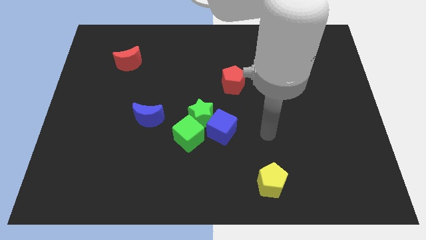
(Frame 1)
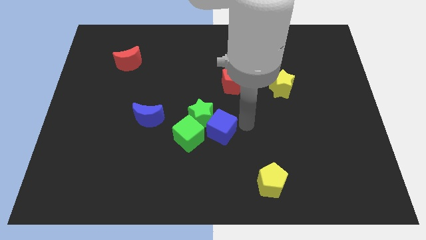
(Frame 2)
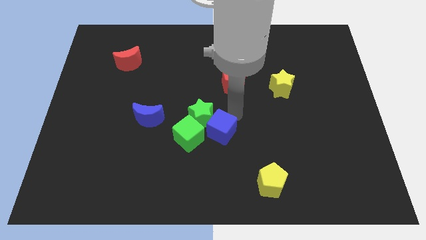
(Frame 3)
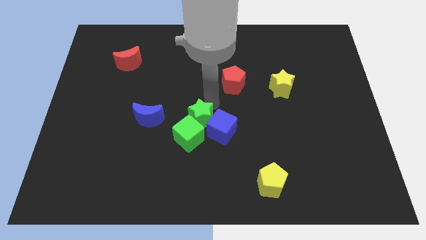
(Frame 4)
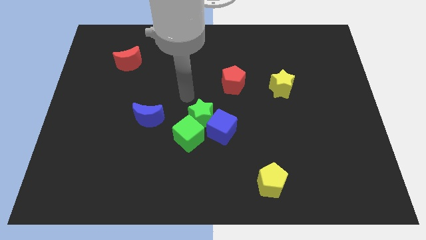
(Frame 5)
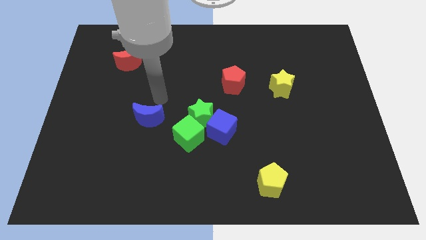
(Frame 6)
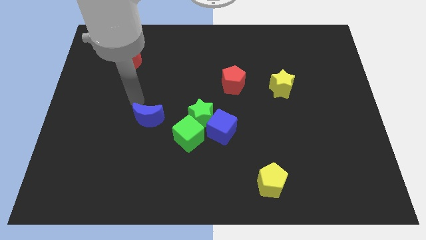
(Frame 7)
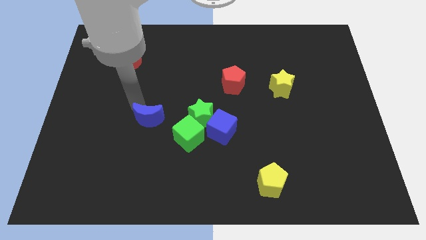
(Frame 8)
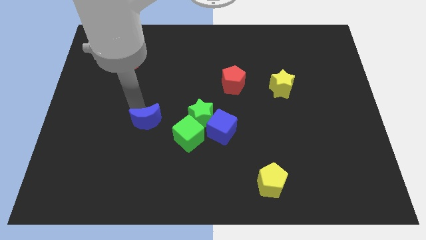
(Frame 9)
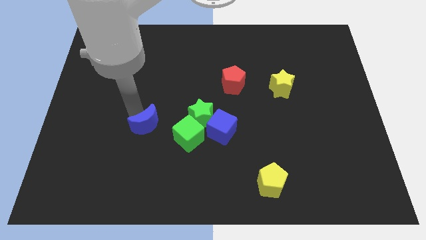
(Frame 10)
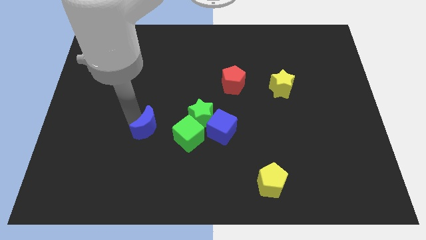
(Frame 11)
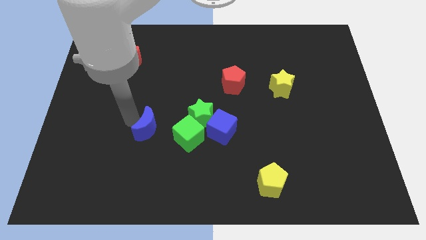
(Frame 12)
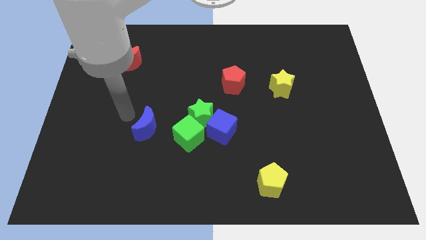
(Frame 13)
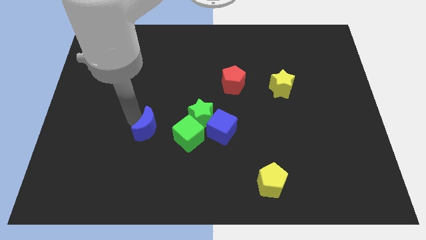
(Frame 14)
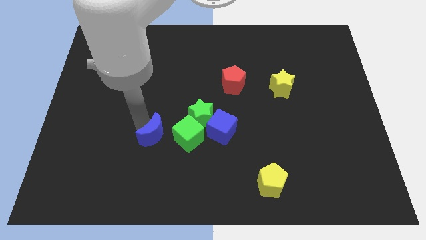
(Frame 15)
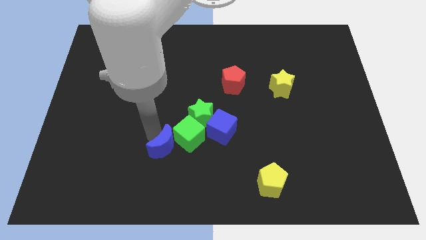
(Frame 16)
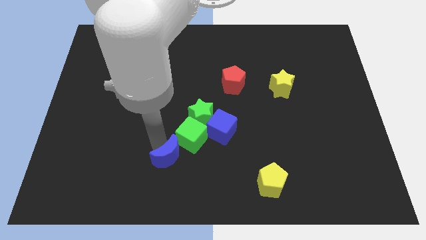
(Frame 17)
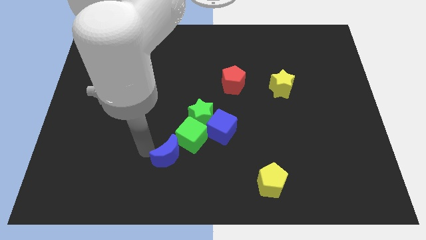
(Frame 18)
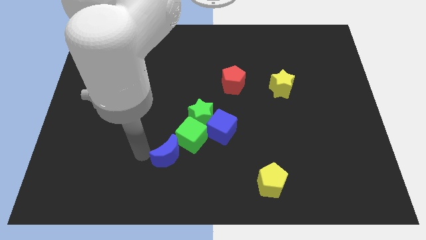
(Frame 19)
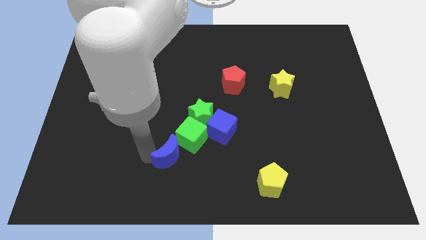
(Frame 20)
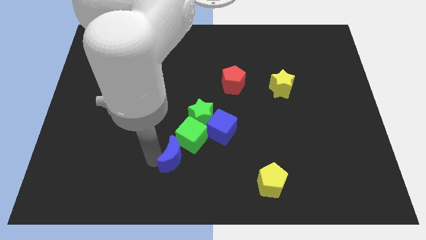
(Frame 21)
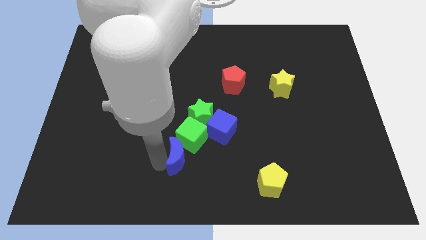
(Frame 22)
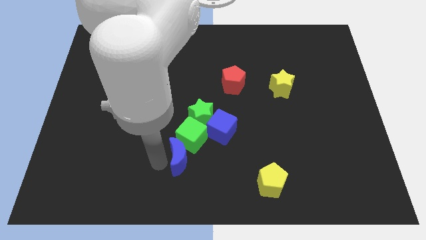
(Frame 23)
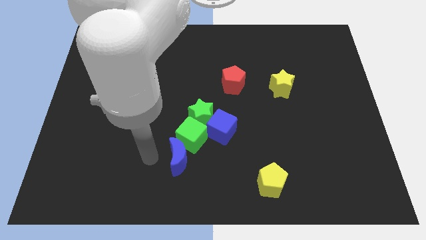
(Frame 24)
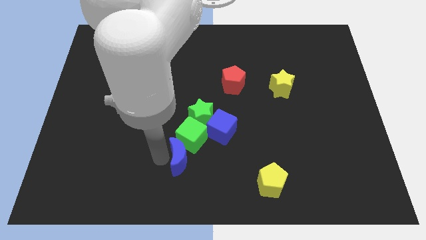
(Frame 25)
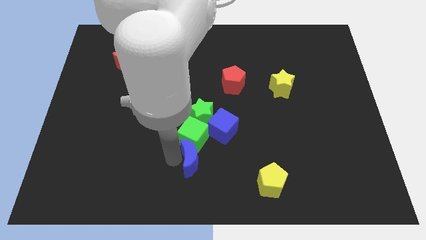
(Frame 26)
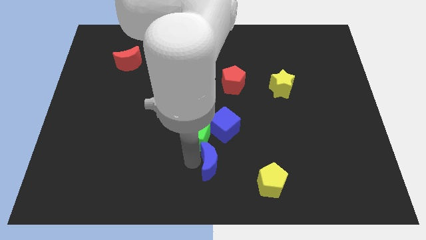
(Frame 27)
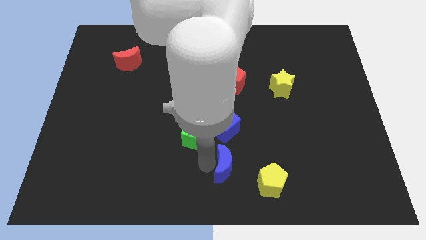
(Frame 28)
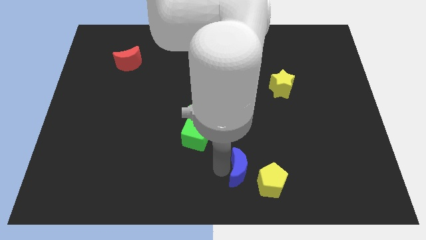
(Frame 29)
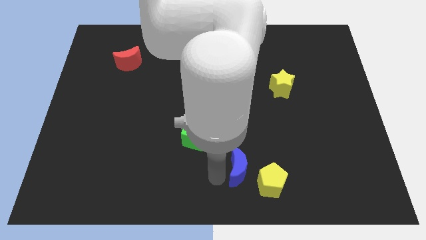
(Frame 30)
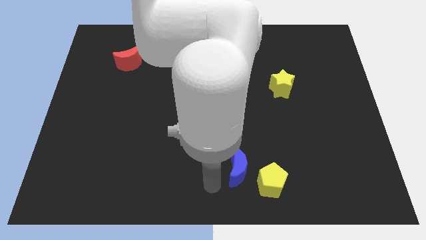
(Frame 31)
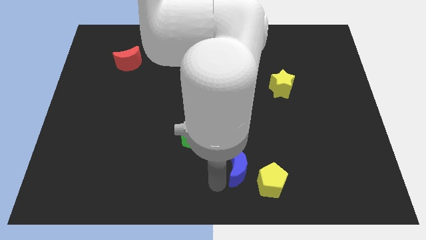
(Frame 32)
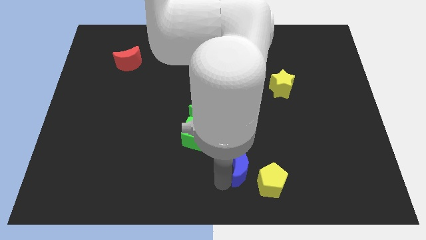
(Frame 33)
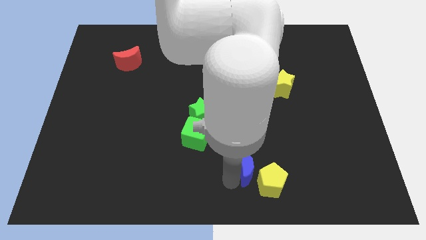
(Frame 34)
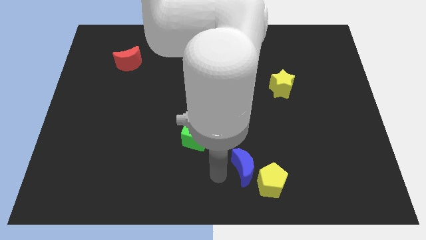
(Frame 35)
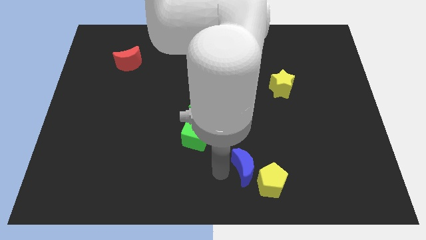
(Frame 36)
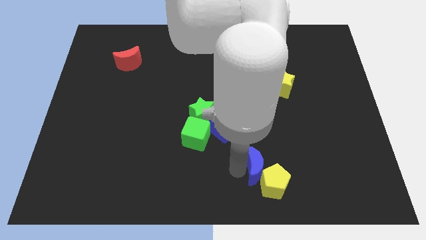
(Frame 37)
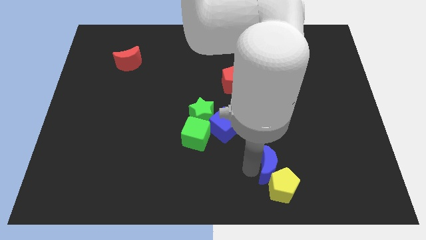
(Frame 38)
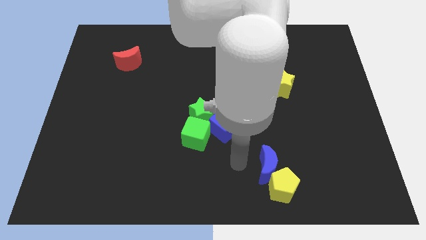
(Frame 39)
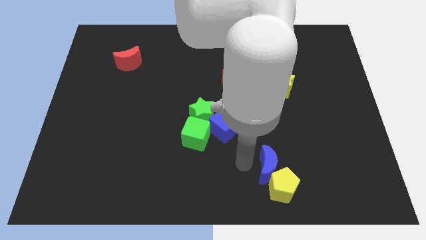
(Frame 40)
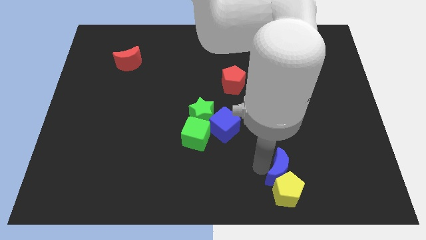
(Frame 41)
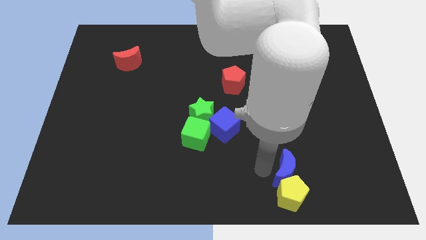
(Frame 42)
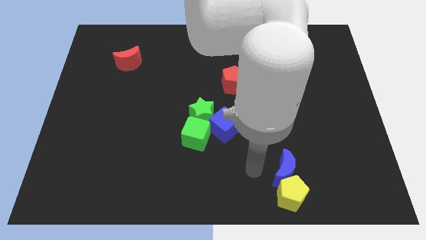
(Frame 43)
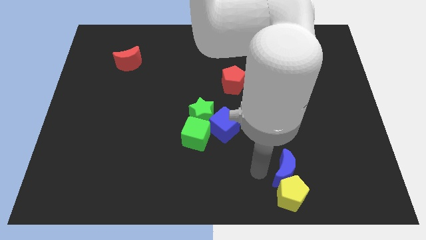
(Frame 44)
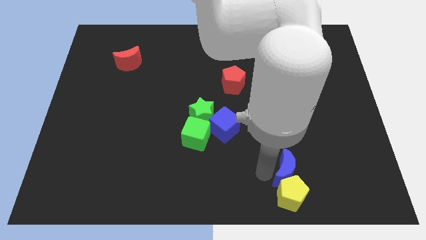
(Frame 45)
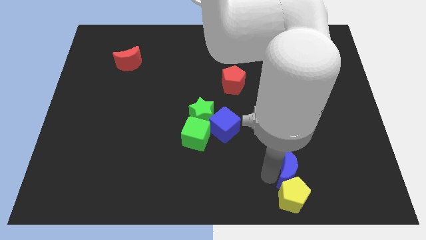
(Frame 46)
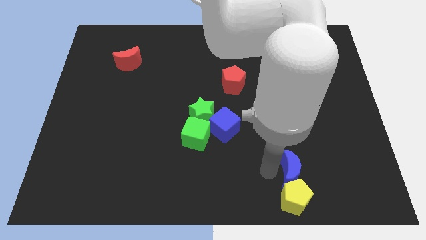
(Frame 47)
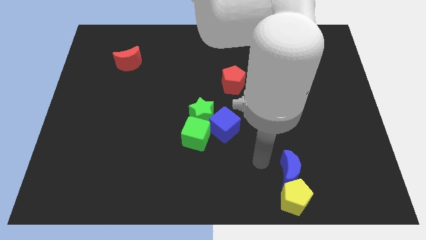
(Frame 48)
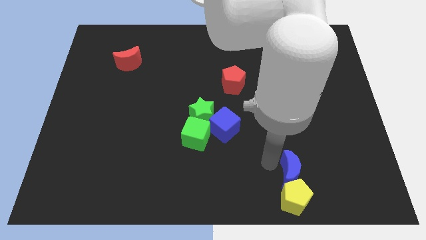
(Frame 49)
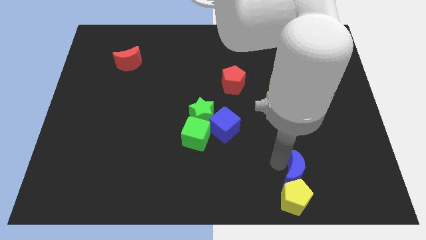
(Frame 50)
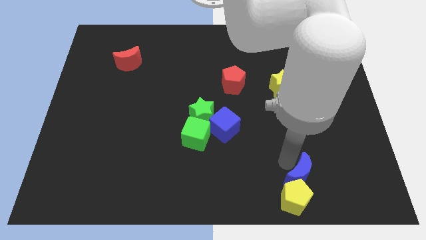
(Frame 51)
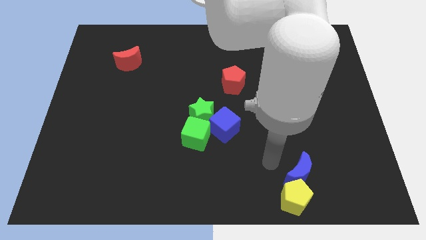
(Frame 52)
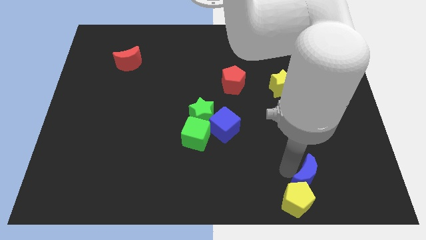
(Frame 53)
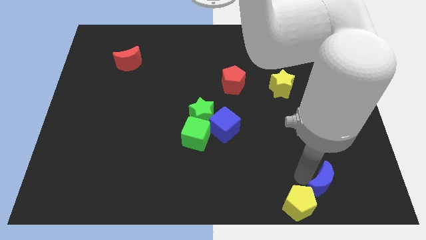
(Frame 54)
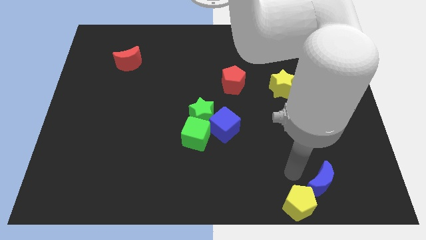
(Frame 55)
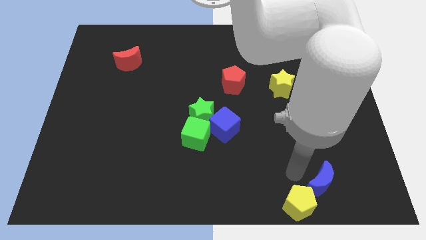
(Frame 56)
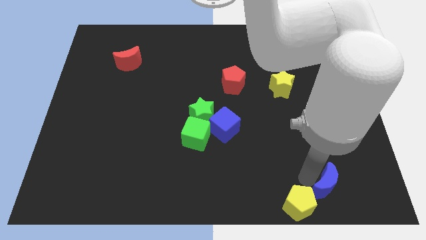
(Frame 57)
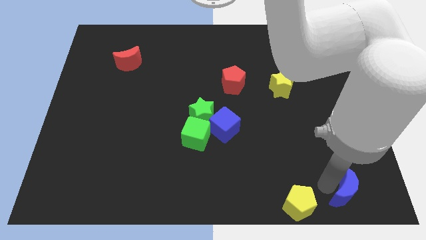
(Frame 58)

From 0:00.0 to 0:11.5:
put the blue moon to the bottom right corner
